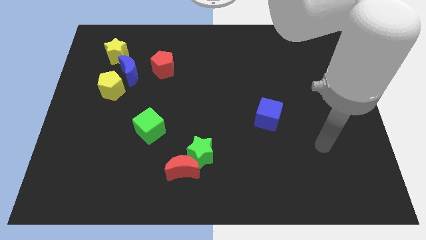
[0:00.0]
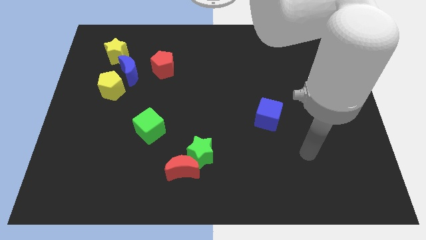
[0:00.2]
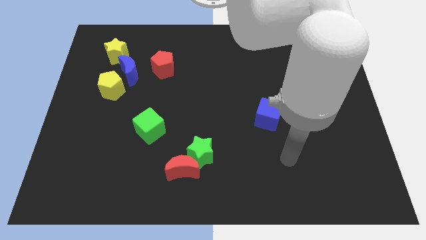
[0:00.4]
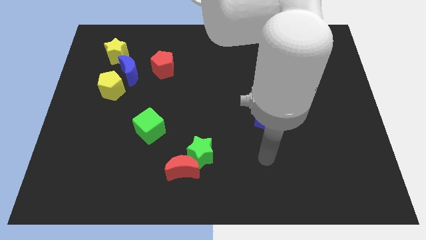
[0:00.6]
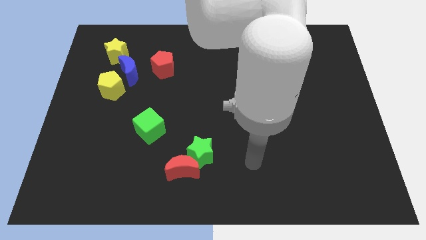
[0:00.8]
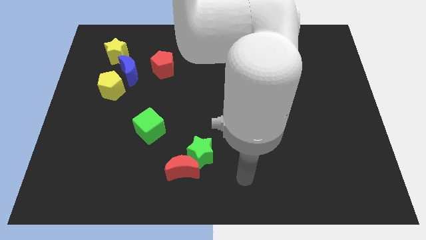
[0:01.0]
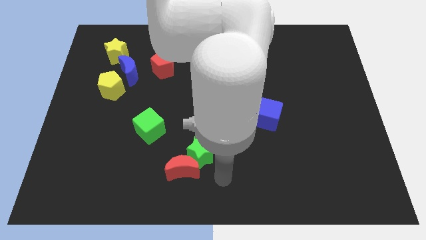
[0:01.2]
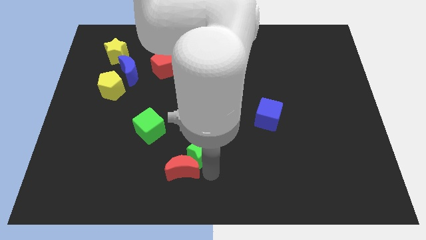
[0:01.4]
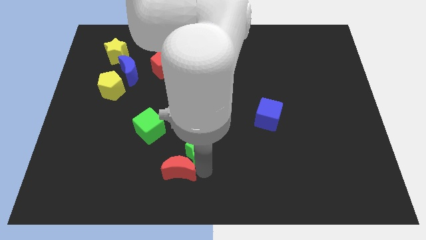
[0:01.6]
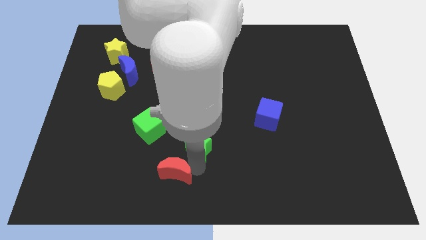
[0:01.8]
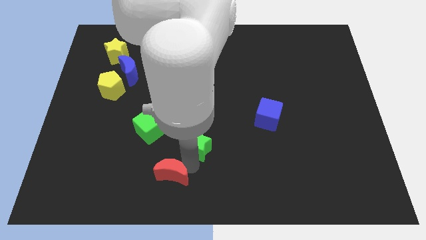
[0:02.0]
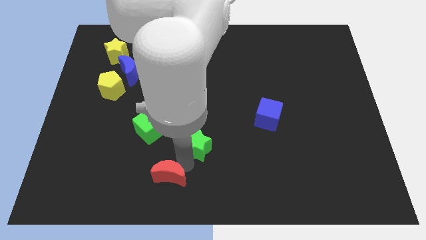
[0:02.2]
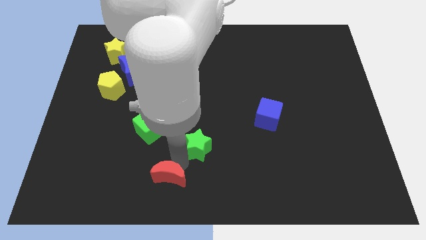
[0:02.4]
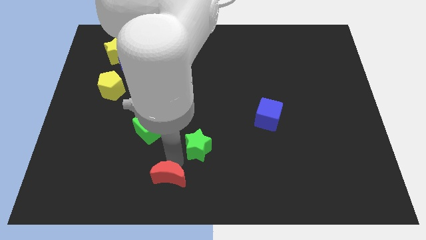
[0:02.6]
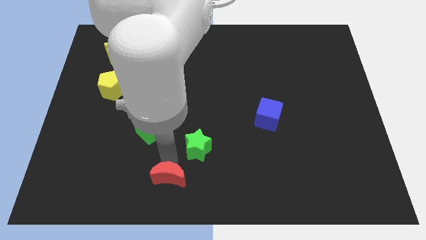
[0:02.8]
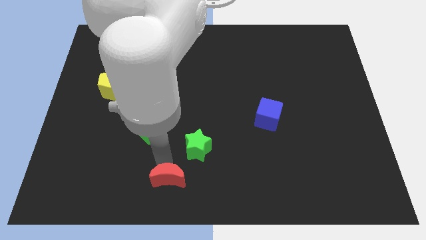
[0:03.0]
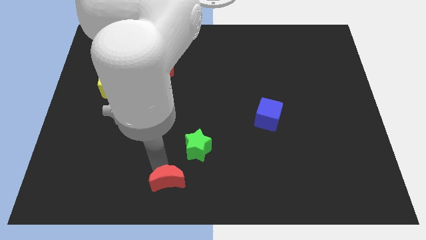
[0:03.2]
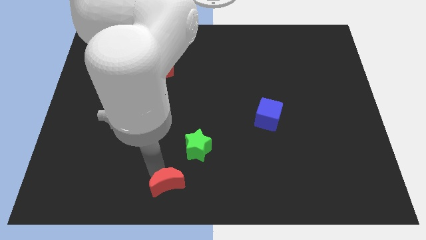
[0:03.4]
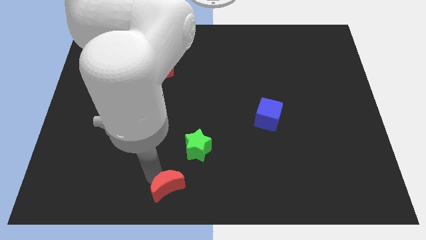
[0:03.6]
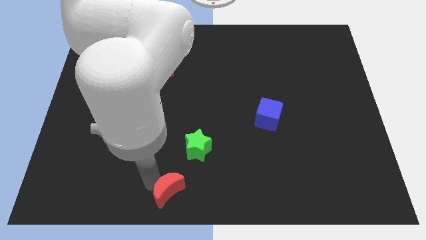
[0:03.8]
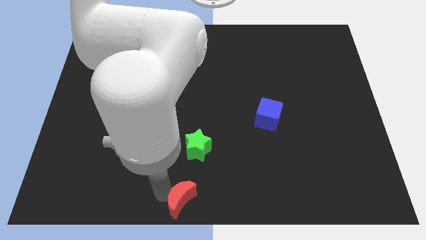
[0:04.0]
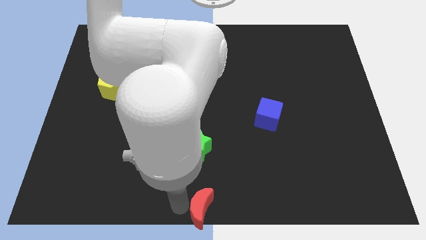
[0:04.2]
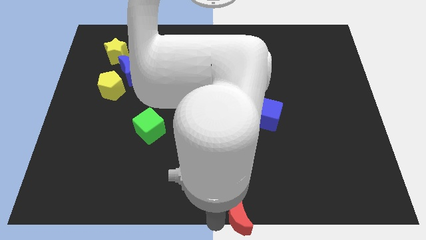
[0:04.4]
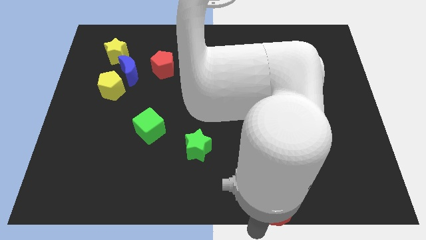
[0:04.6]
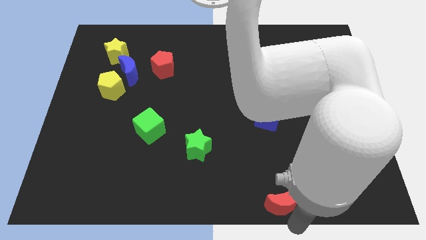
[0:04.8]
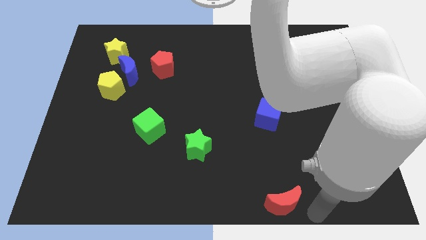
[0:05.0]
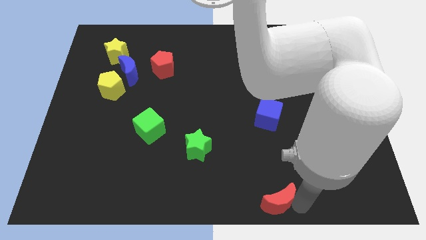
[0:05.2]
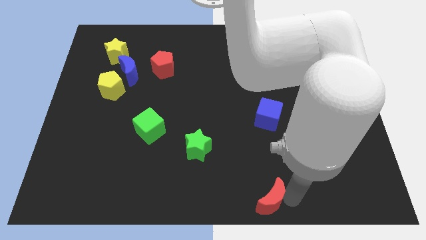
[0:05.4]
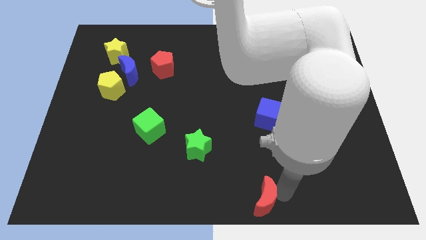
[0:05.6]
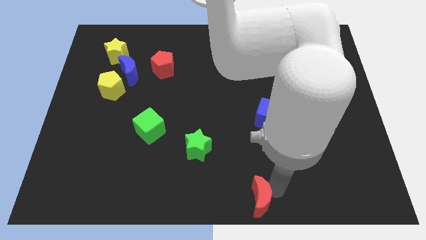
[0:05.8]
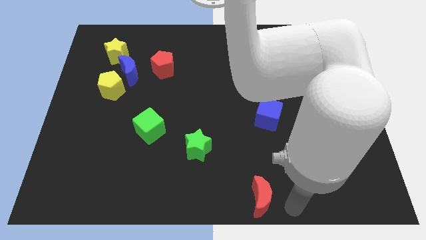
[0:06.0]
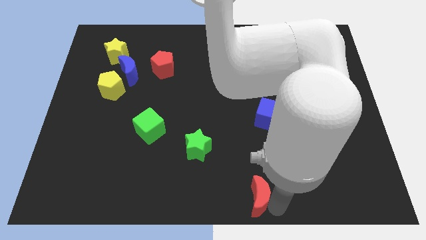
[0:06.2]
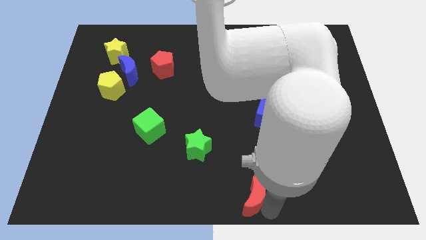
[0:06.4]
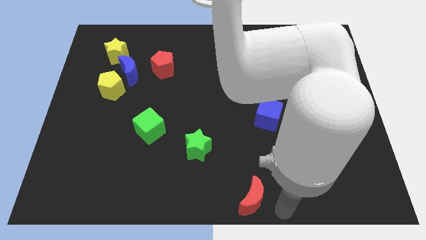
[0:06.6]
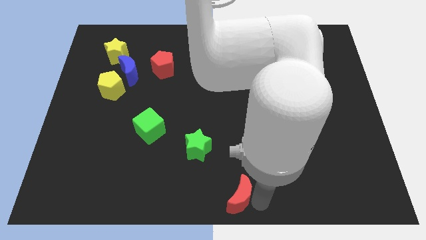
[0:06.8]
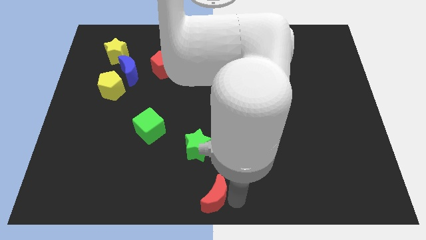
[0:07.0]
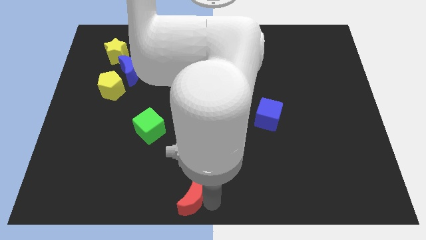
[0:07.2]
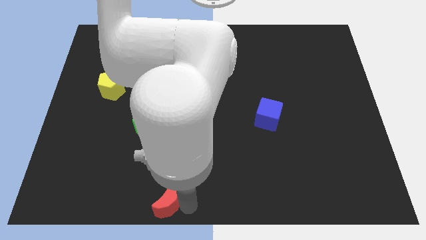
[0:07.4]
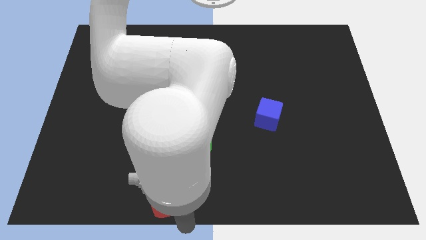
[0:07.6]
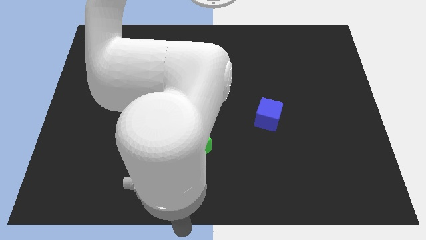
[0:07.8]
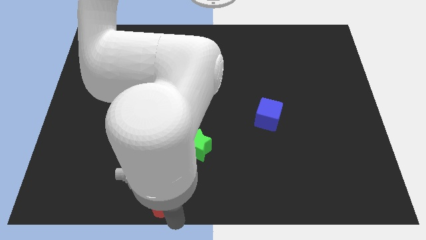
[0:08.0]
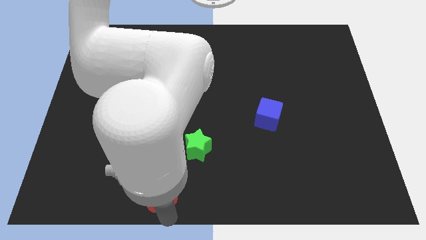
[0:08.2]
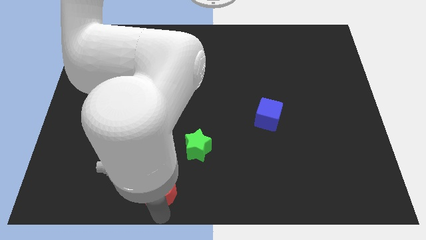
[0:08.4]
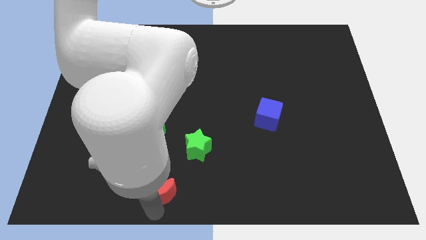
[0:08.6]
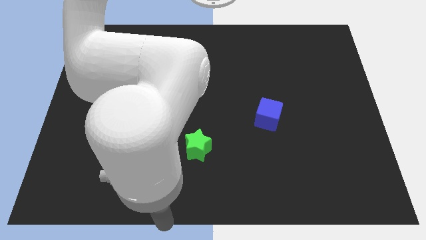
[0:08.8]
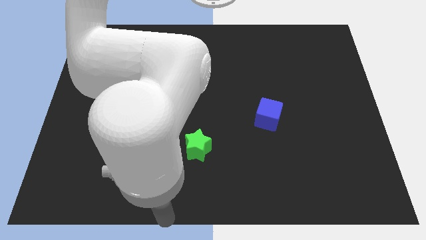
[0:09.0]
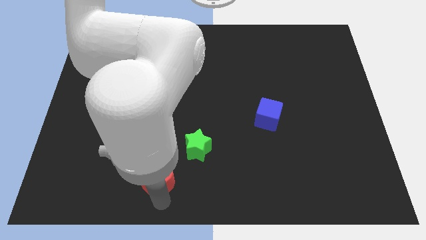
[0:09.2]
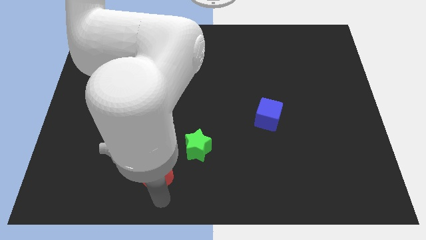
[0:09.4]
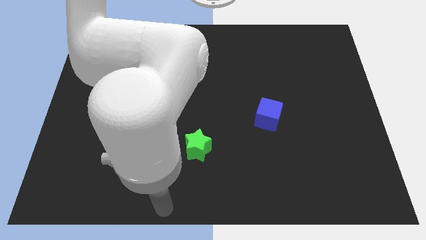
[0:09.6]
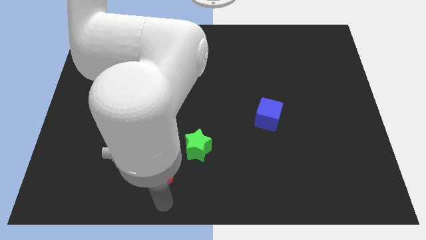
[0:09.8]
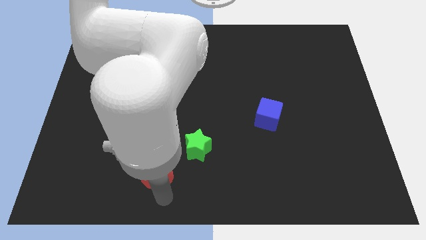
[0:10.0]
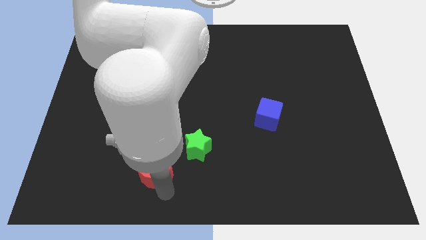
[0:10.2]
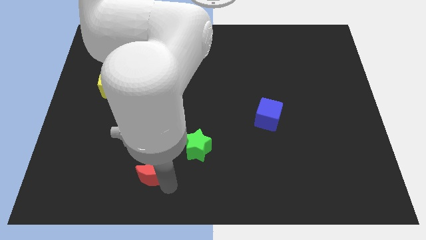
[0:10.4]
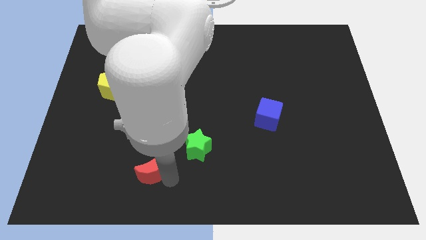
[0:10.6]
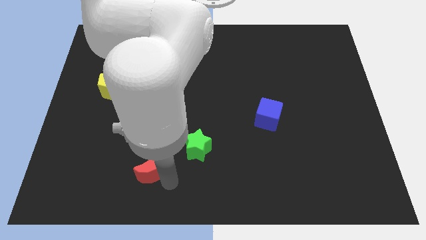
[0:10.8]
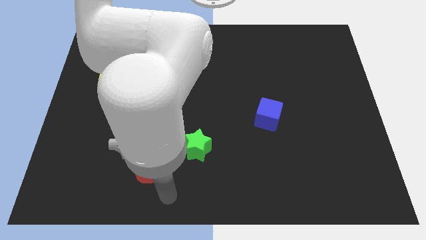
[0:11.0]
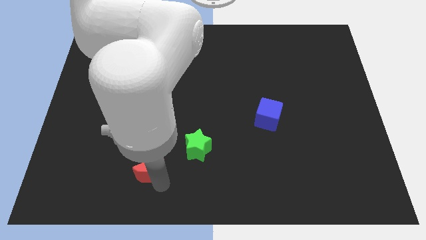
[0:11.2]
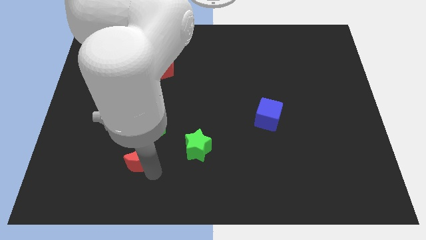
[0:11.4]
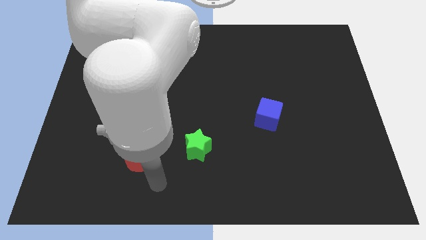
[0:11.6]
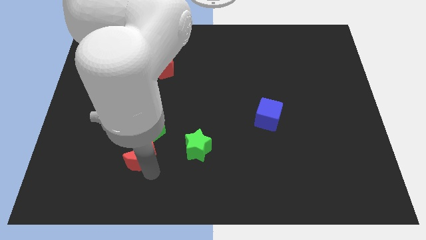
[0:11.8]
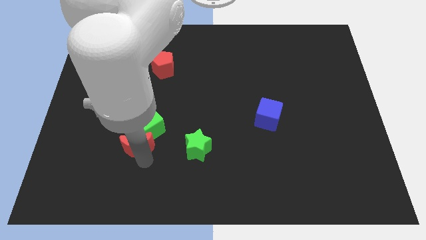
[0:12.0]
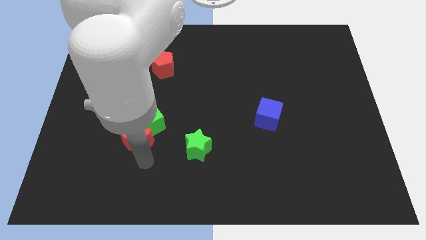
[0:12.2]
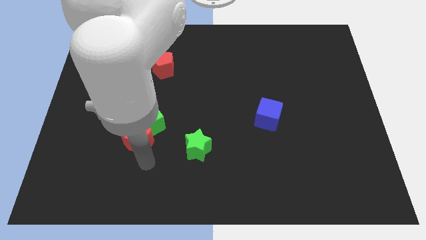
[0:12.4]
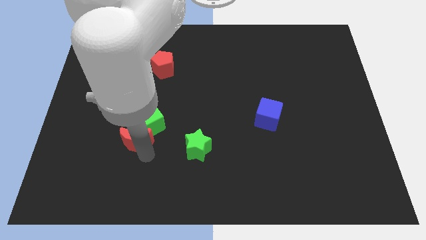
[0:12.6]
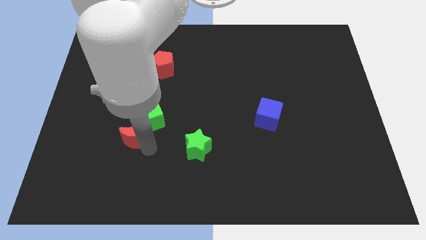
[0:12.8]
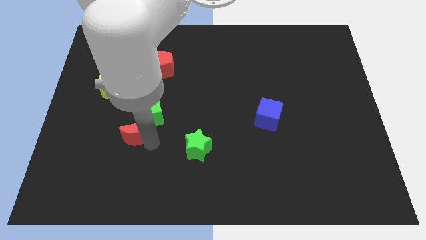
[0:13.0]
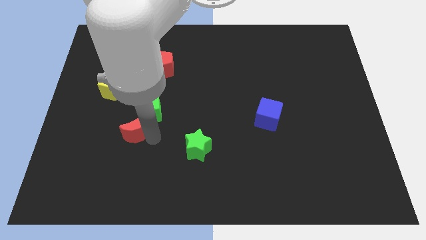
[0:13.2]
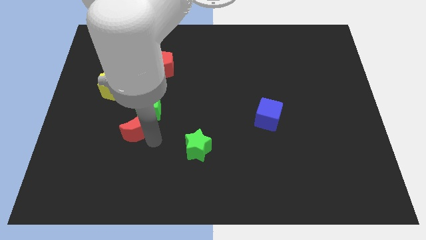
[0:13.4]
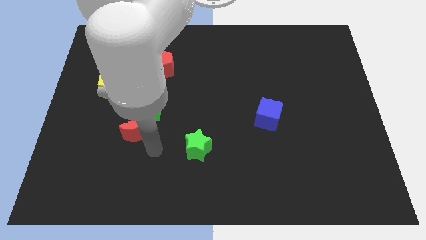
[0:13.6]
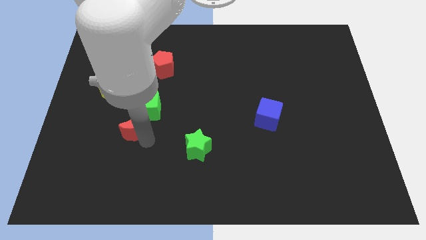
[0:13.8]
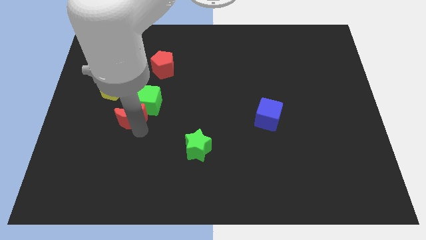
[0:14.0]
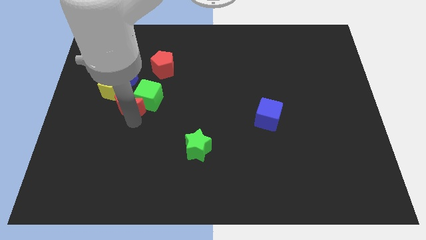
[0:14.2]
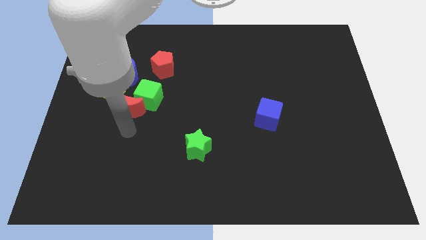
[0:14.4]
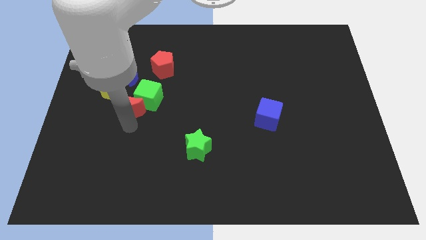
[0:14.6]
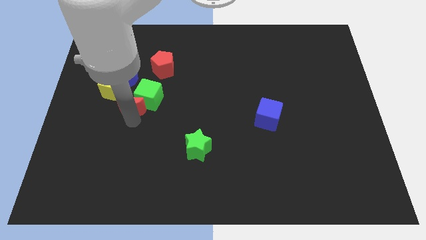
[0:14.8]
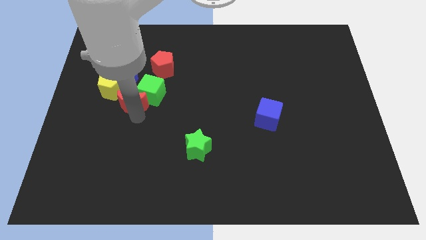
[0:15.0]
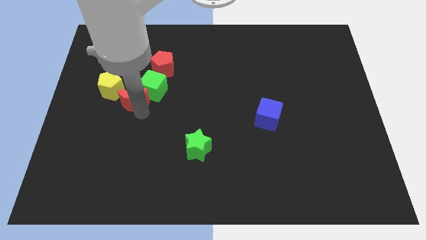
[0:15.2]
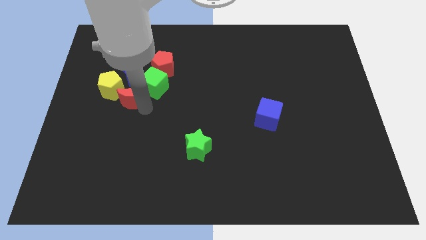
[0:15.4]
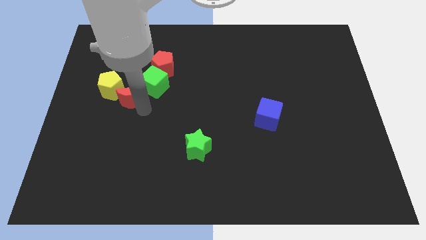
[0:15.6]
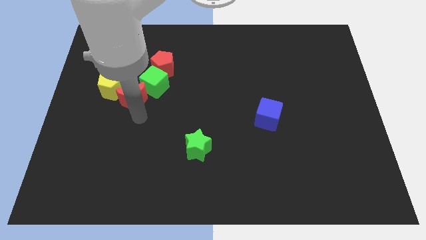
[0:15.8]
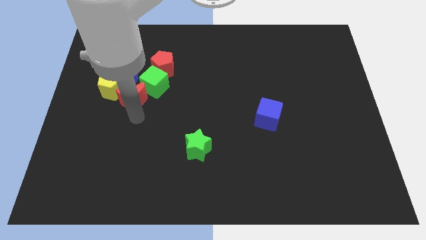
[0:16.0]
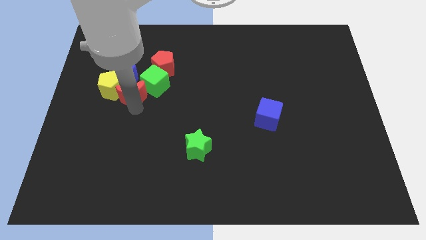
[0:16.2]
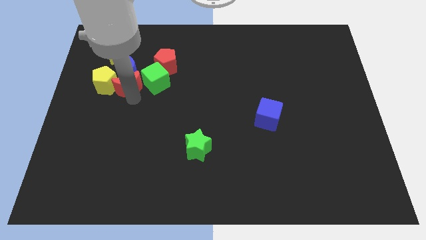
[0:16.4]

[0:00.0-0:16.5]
slide the red moon close to the blue moon
